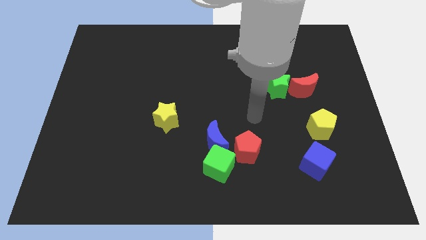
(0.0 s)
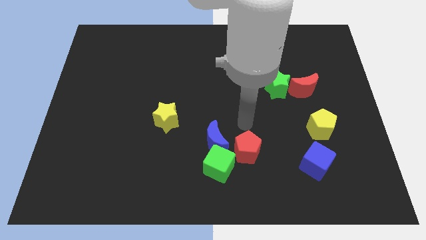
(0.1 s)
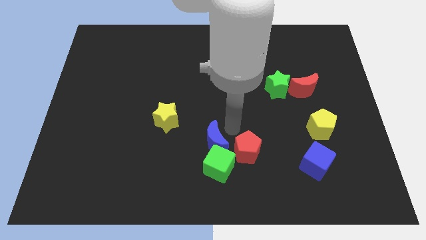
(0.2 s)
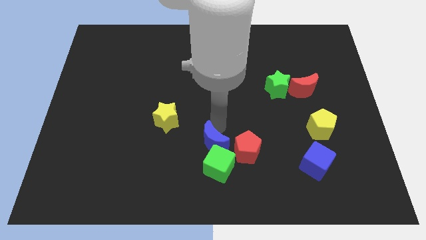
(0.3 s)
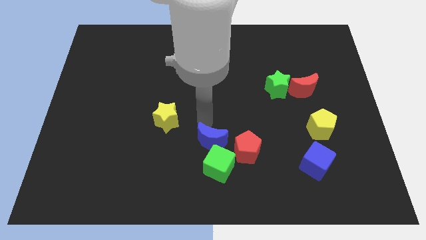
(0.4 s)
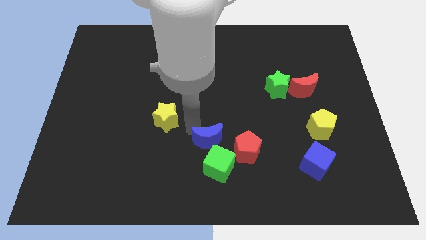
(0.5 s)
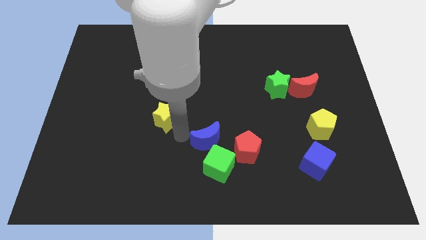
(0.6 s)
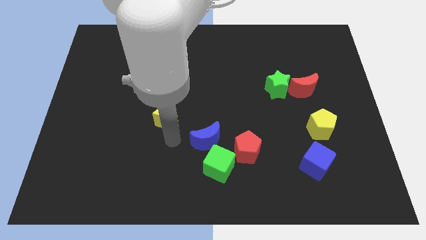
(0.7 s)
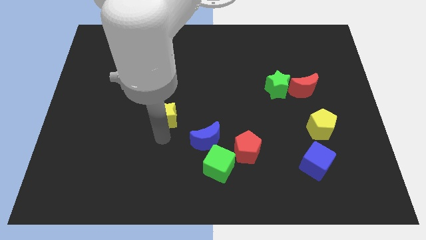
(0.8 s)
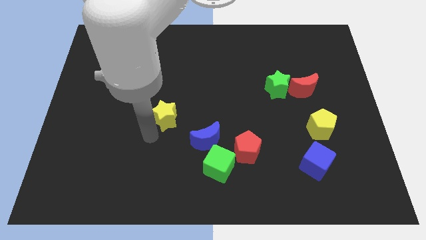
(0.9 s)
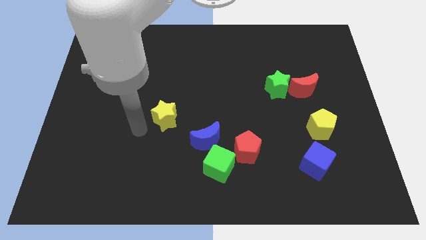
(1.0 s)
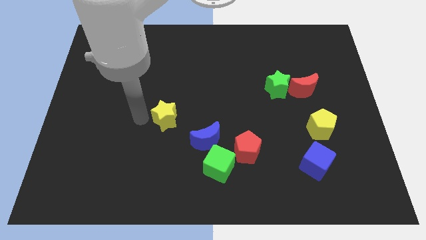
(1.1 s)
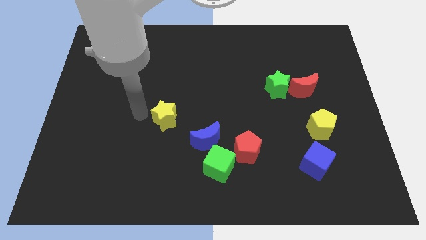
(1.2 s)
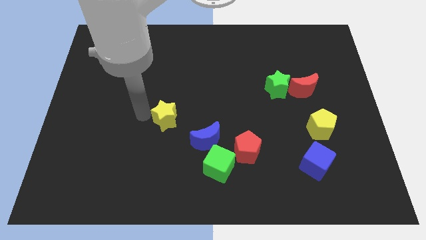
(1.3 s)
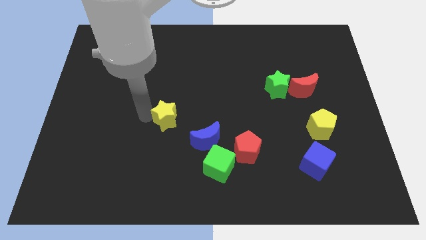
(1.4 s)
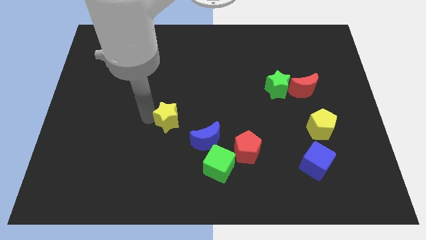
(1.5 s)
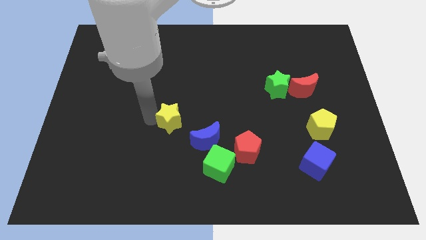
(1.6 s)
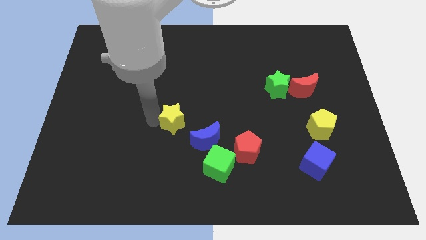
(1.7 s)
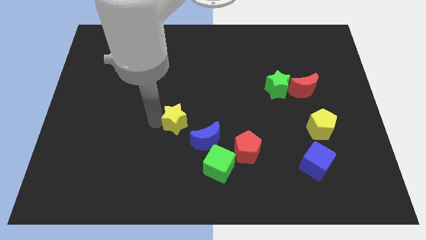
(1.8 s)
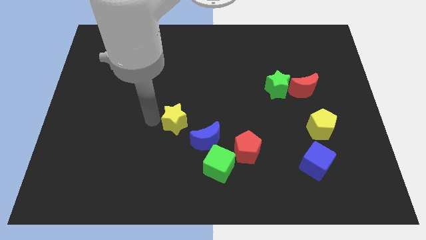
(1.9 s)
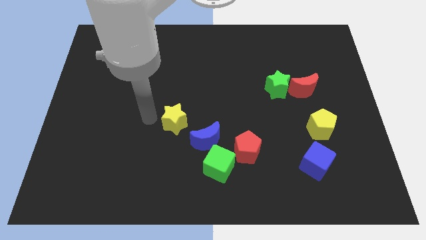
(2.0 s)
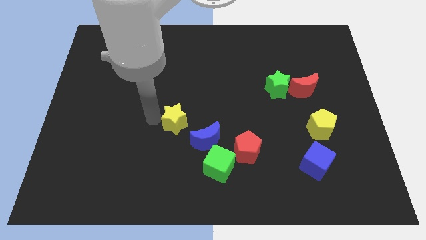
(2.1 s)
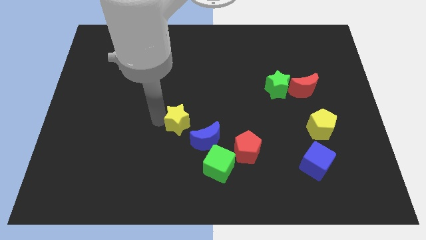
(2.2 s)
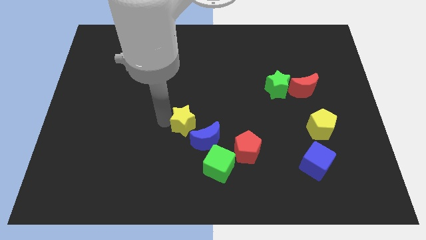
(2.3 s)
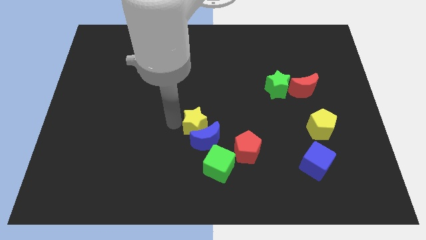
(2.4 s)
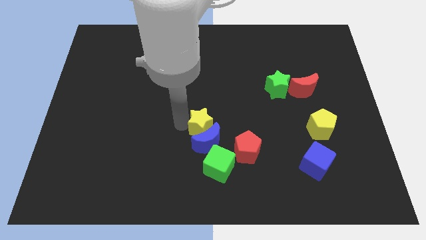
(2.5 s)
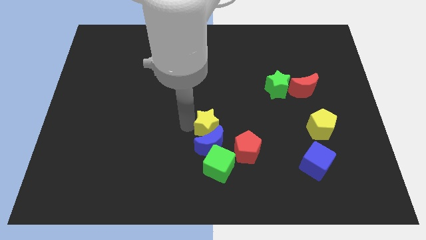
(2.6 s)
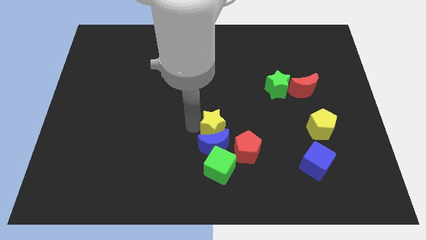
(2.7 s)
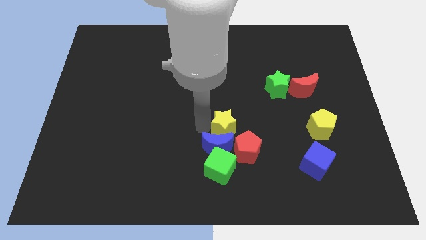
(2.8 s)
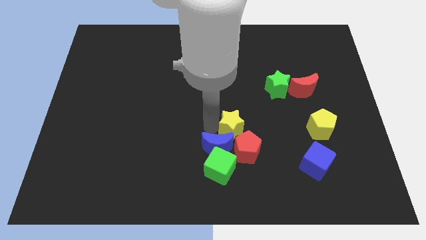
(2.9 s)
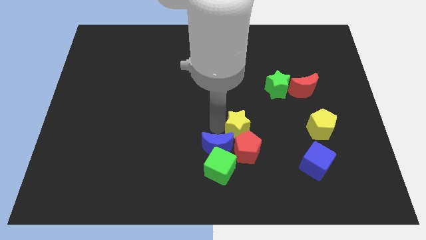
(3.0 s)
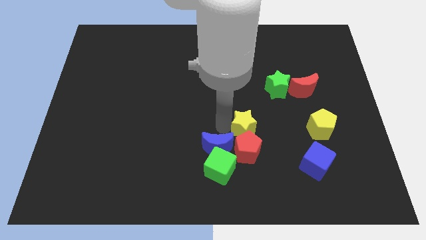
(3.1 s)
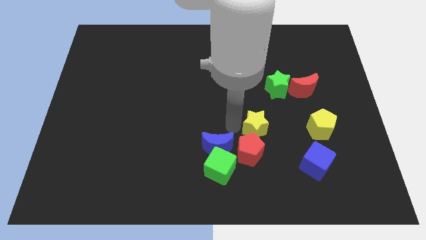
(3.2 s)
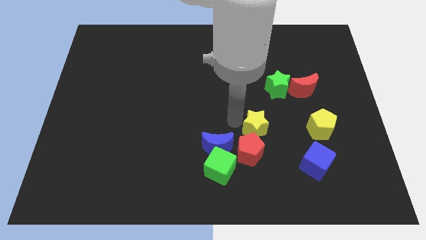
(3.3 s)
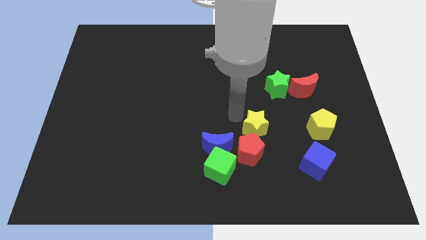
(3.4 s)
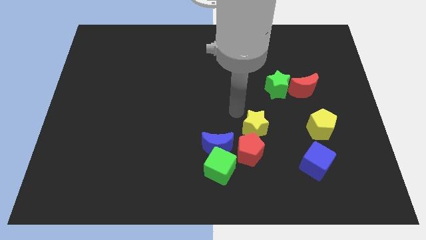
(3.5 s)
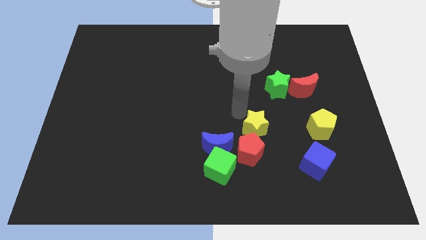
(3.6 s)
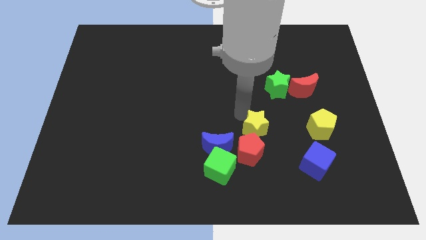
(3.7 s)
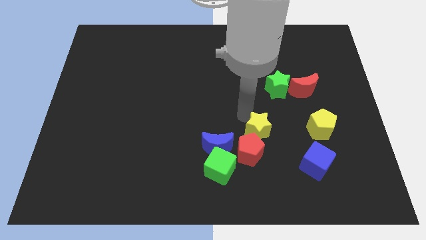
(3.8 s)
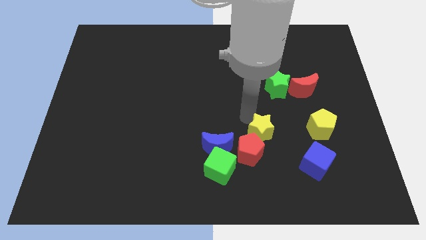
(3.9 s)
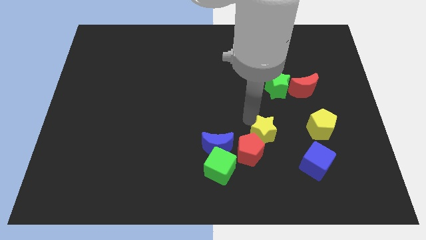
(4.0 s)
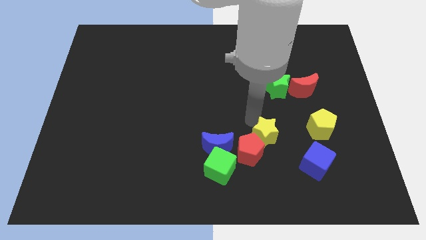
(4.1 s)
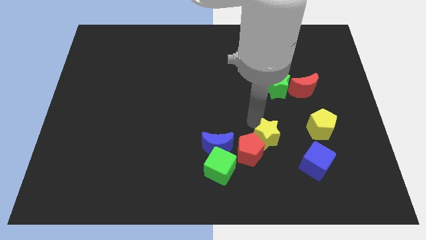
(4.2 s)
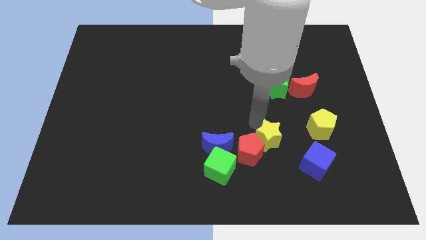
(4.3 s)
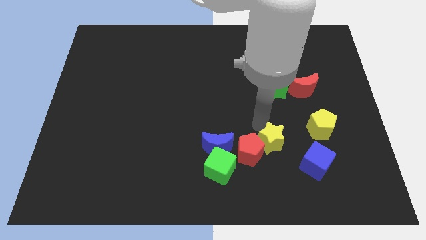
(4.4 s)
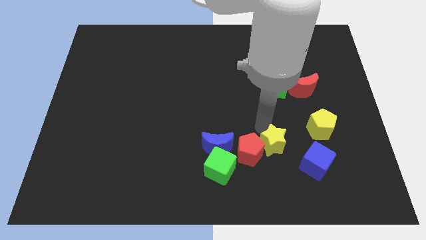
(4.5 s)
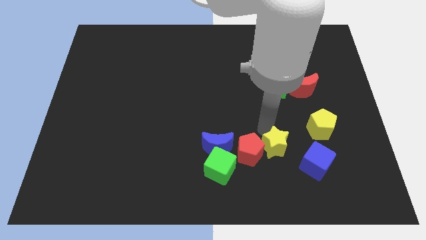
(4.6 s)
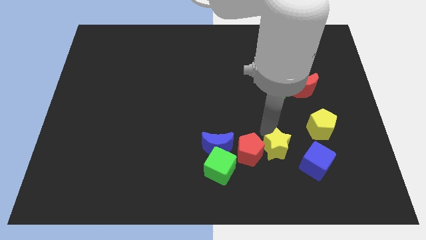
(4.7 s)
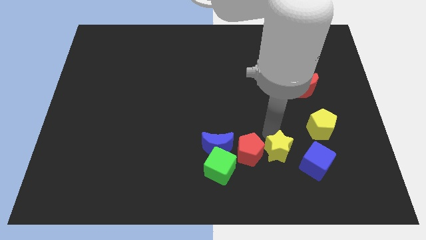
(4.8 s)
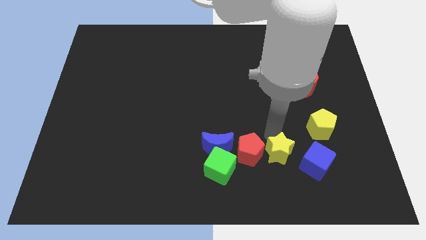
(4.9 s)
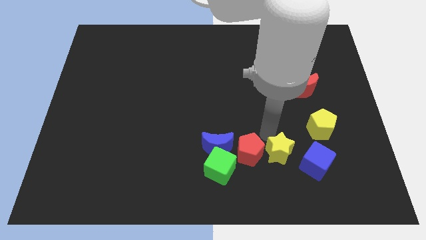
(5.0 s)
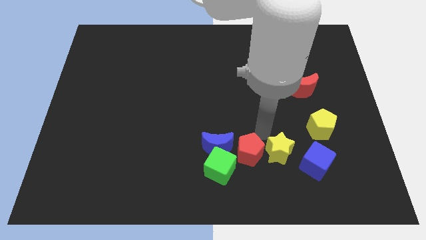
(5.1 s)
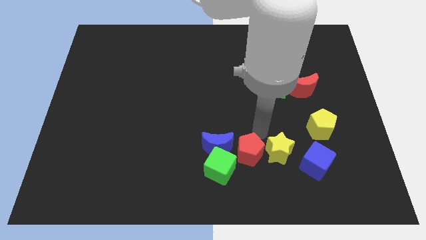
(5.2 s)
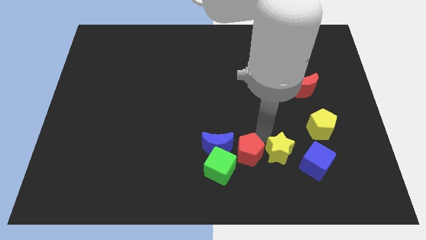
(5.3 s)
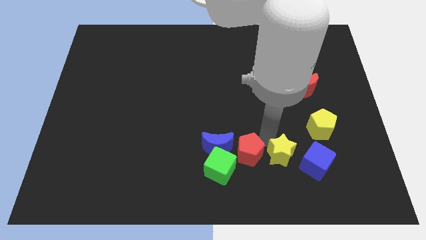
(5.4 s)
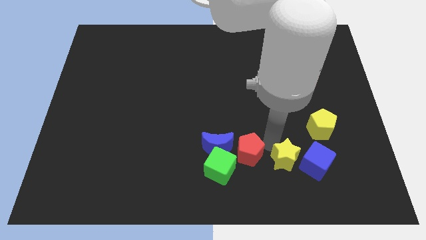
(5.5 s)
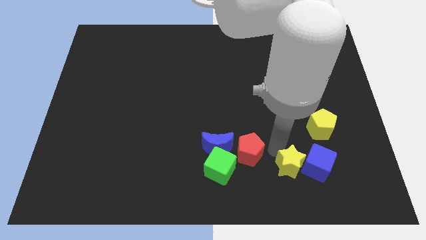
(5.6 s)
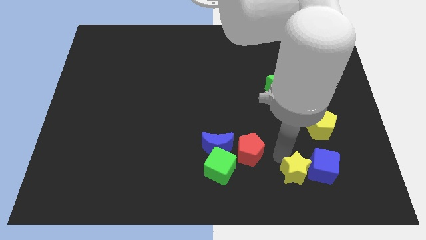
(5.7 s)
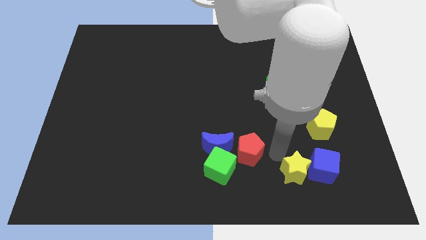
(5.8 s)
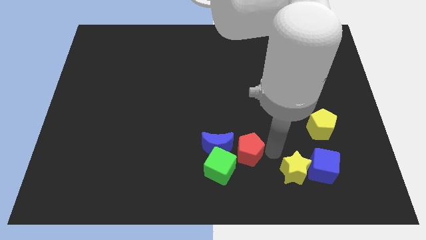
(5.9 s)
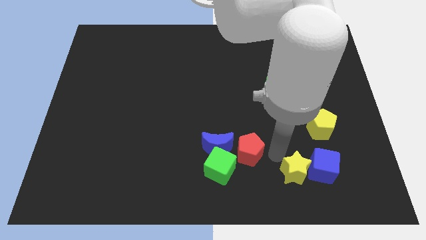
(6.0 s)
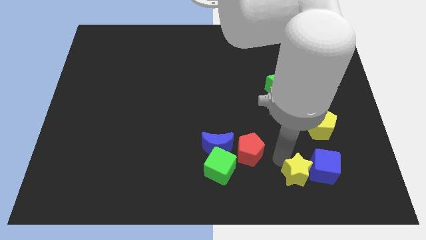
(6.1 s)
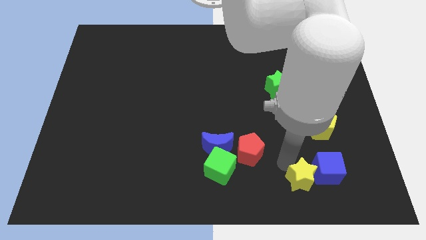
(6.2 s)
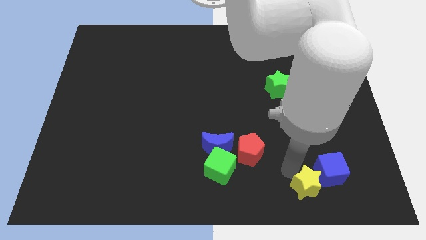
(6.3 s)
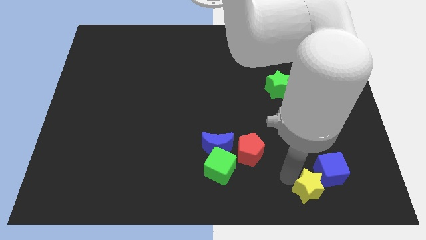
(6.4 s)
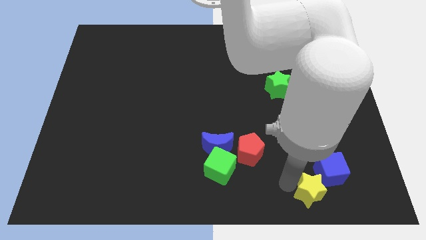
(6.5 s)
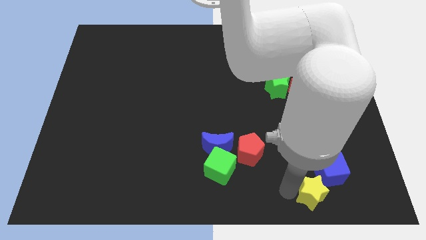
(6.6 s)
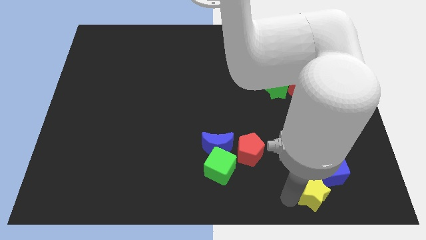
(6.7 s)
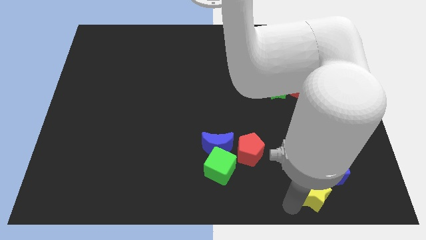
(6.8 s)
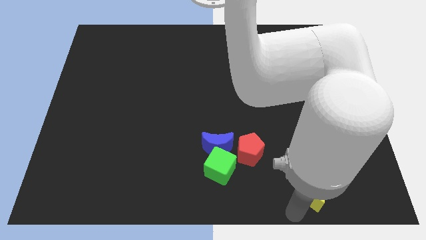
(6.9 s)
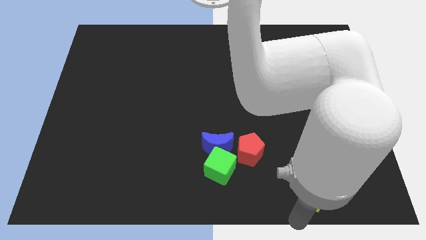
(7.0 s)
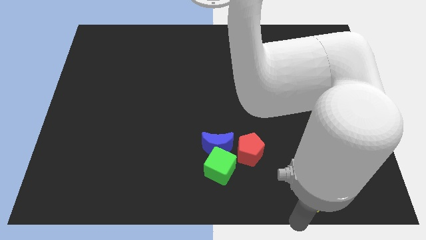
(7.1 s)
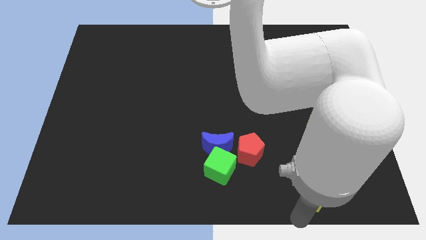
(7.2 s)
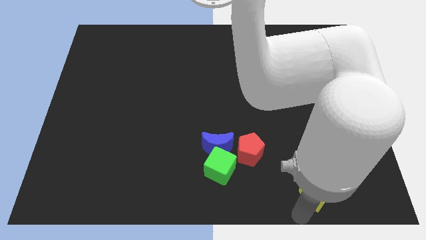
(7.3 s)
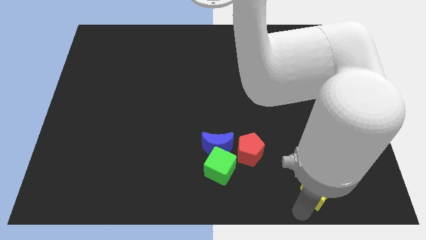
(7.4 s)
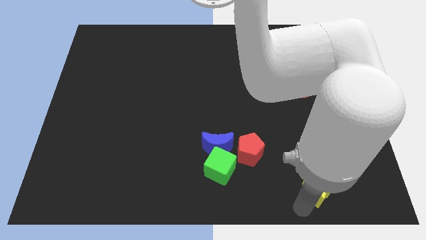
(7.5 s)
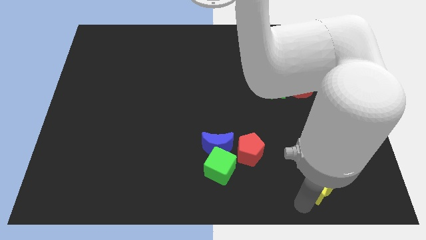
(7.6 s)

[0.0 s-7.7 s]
slide the yellow star below the yellow pentagon
